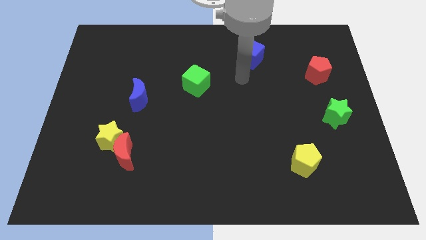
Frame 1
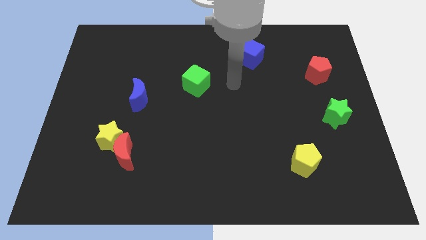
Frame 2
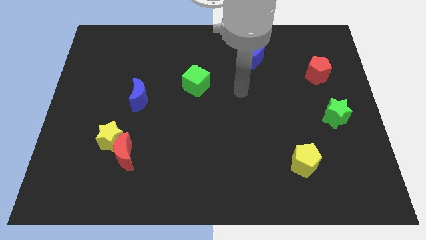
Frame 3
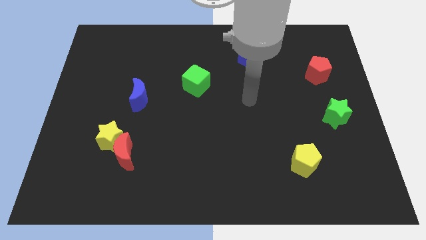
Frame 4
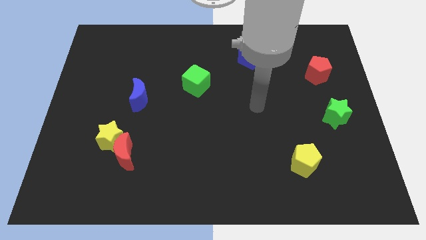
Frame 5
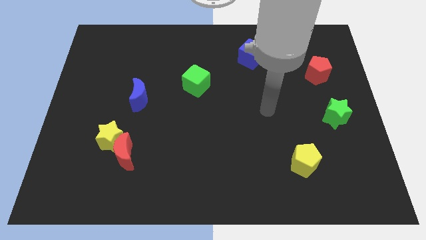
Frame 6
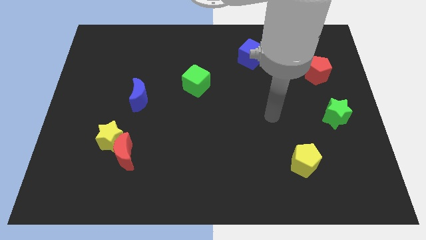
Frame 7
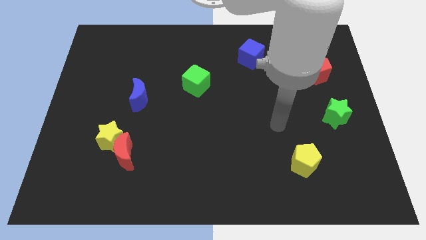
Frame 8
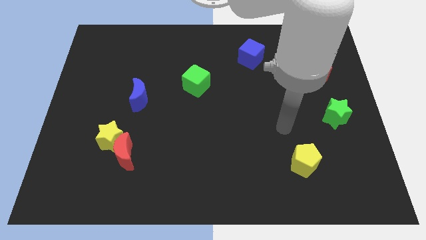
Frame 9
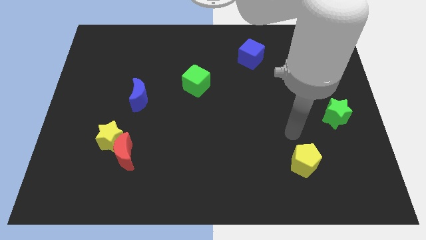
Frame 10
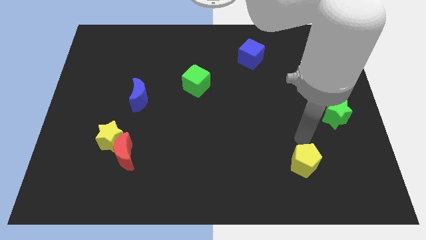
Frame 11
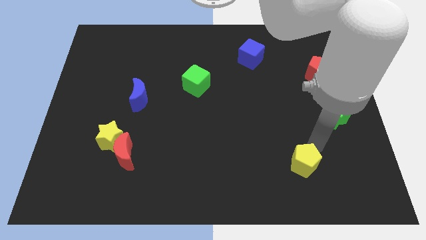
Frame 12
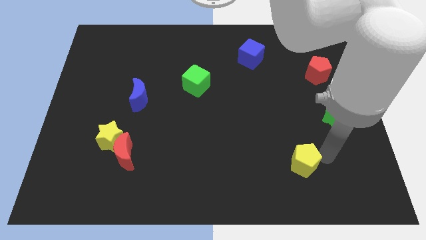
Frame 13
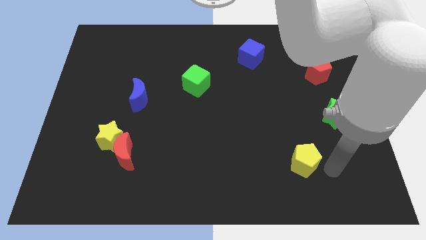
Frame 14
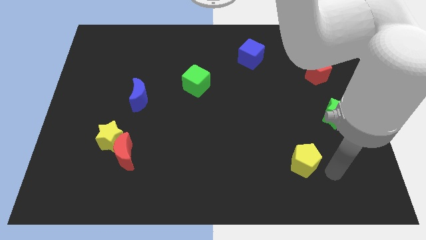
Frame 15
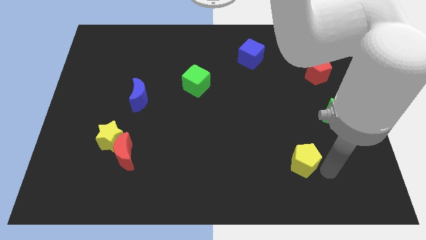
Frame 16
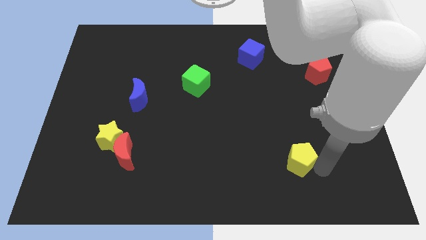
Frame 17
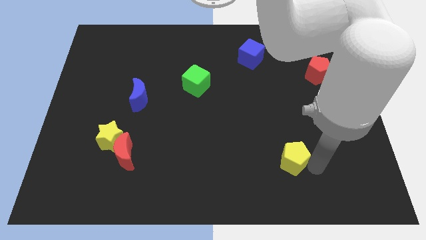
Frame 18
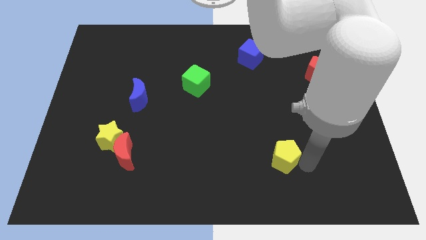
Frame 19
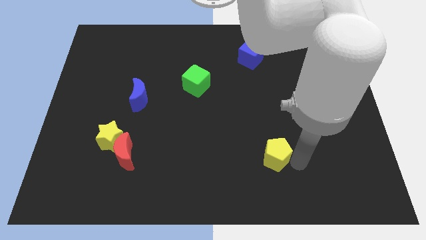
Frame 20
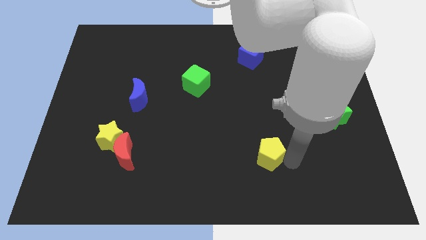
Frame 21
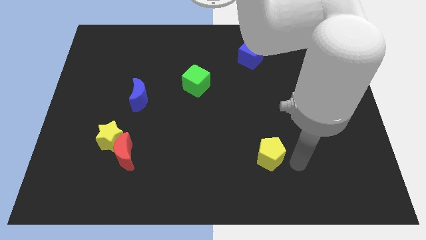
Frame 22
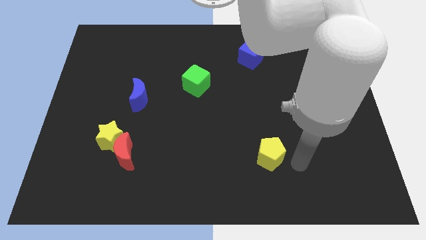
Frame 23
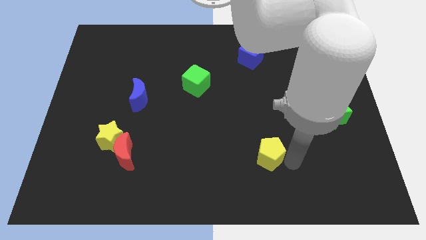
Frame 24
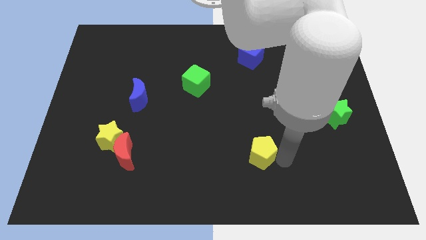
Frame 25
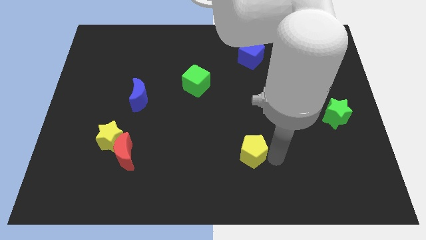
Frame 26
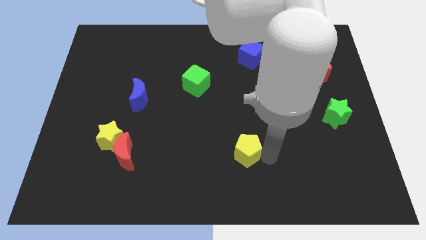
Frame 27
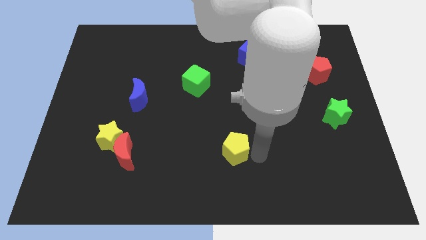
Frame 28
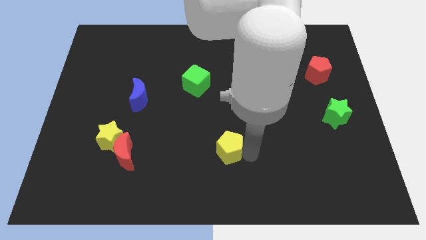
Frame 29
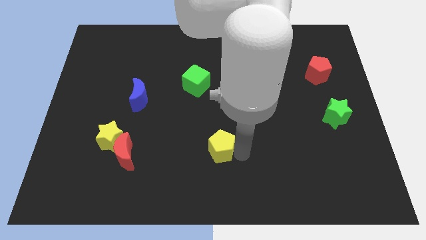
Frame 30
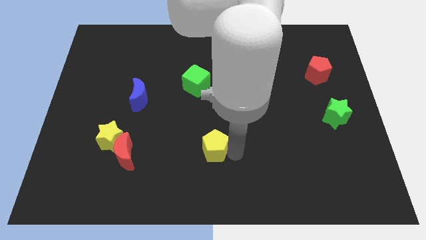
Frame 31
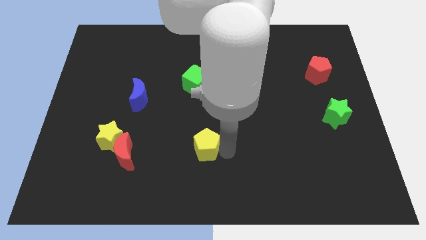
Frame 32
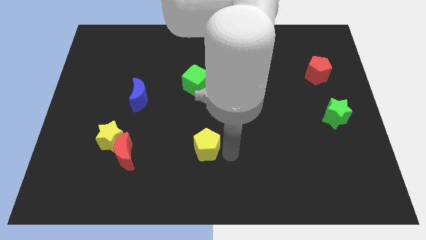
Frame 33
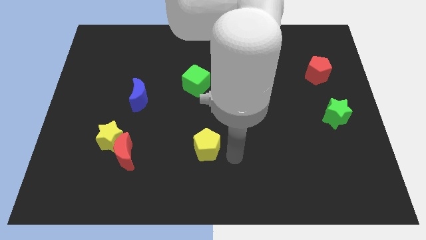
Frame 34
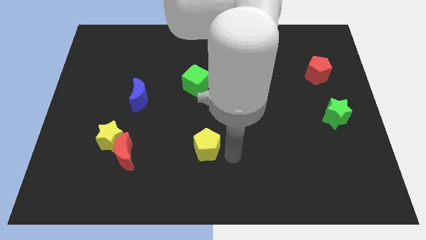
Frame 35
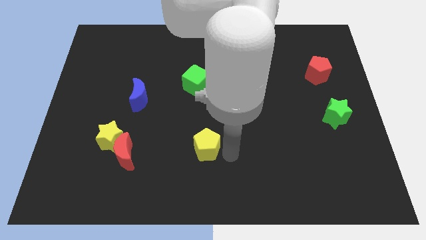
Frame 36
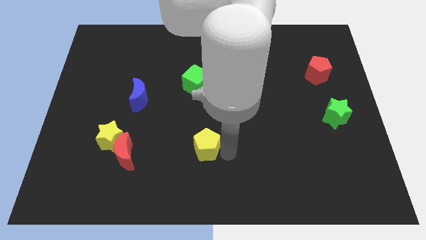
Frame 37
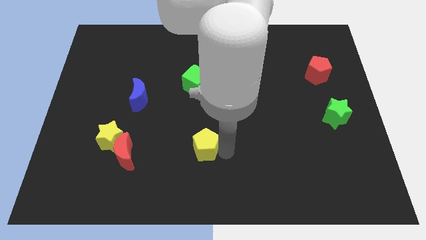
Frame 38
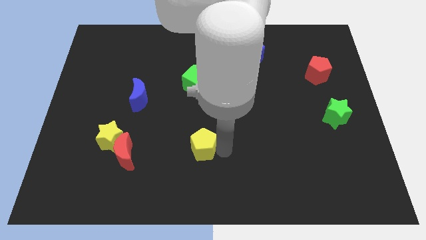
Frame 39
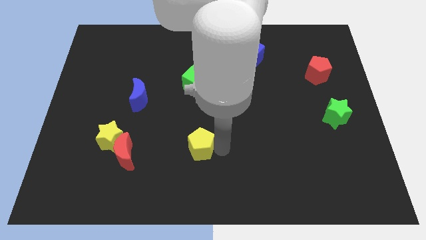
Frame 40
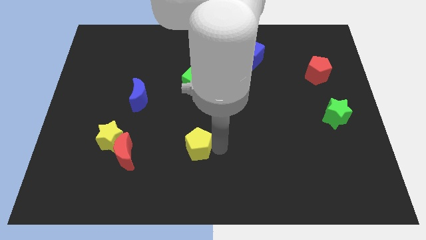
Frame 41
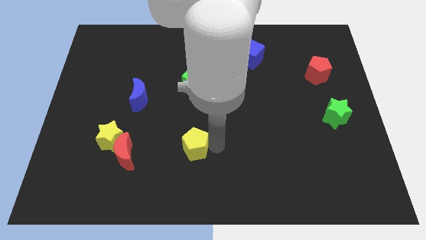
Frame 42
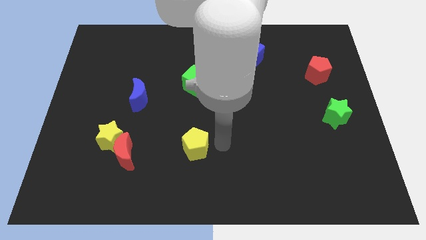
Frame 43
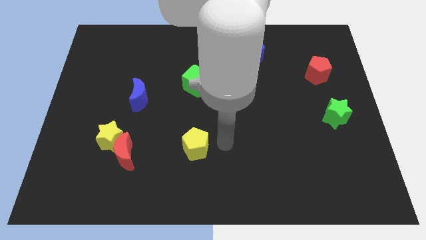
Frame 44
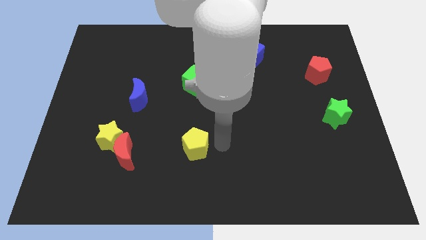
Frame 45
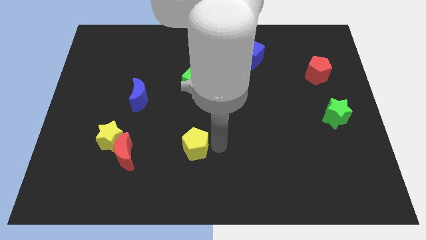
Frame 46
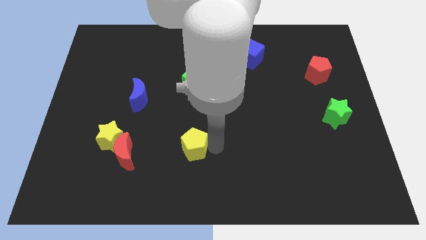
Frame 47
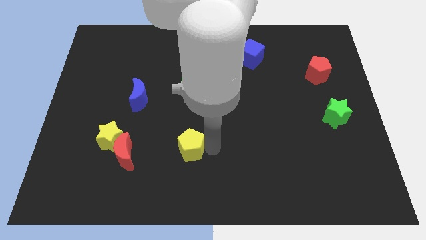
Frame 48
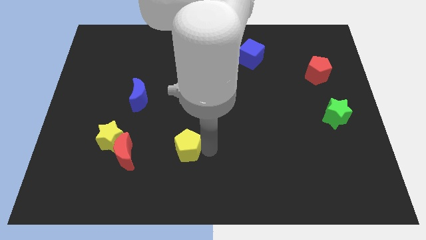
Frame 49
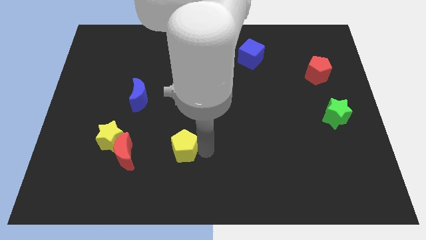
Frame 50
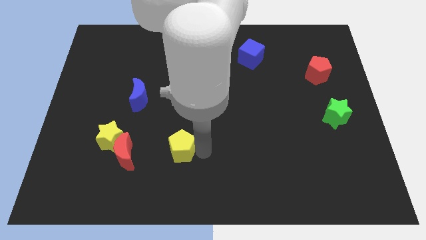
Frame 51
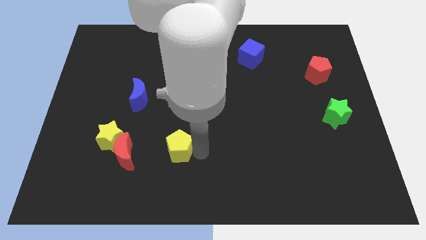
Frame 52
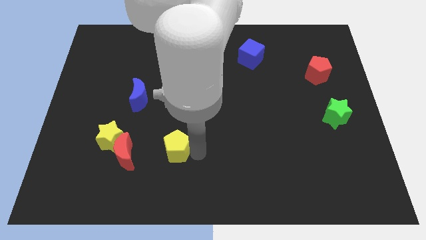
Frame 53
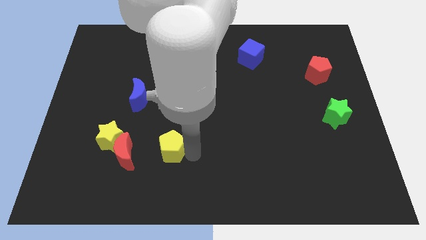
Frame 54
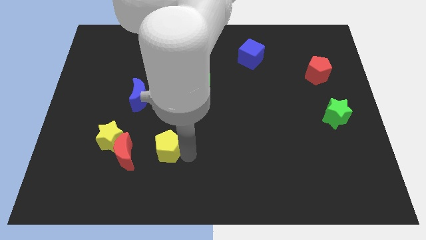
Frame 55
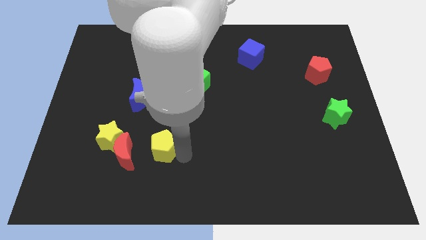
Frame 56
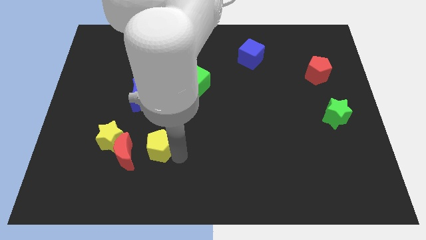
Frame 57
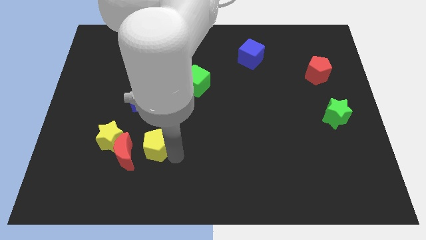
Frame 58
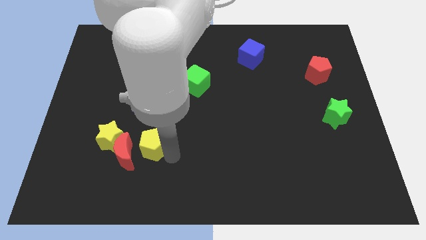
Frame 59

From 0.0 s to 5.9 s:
slide the yellow pentagon close to the red moon

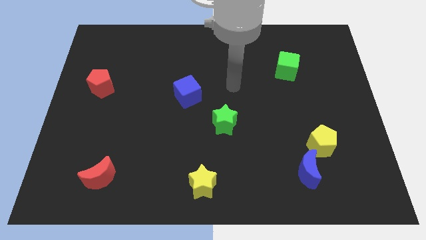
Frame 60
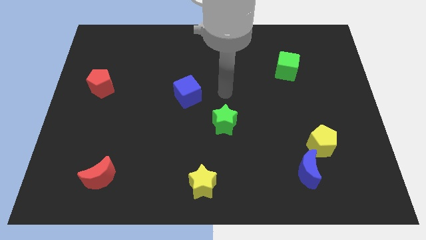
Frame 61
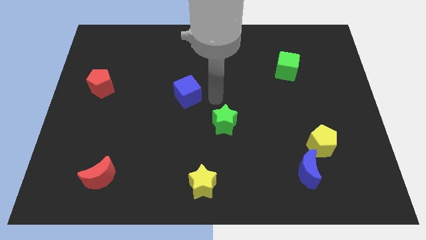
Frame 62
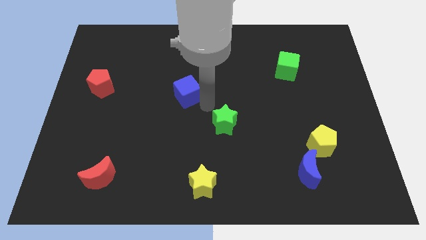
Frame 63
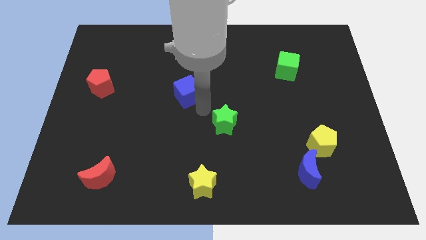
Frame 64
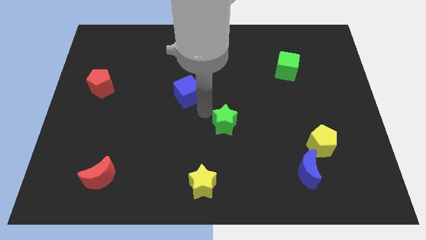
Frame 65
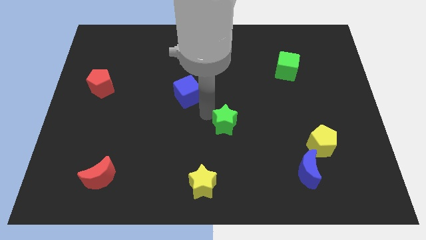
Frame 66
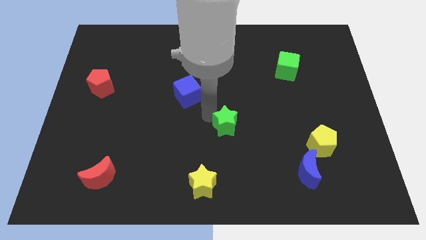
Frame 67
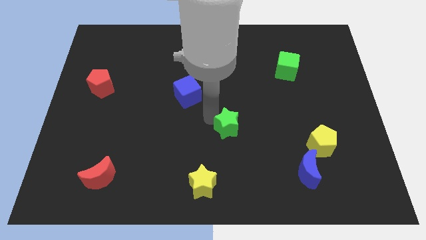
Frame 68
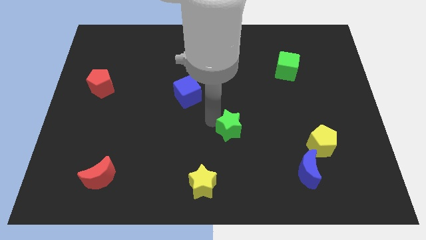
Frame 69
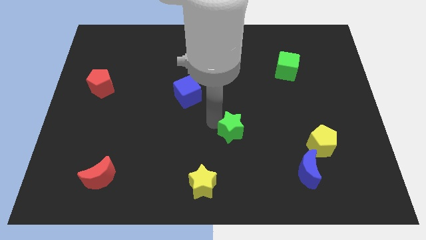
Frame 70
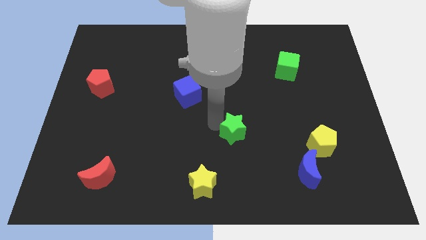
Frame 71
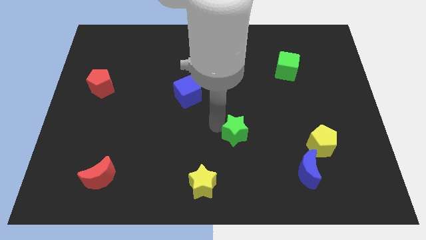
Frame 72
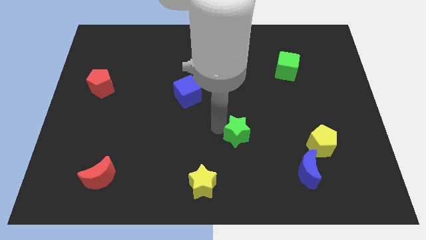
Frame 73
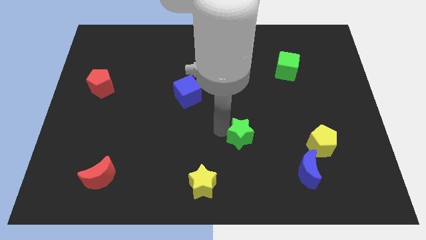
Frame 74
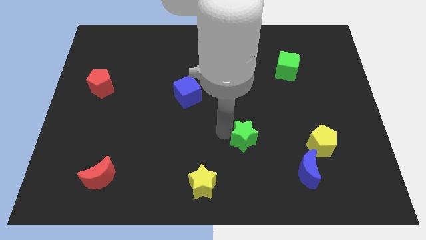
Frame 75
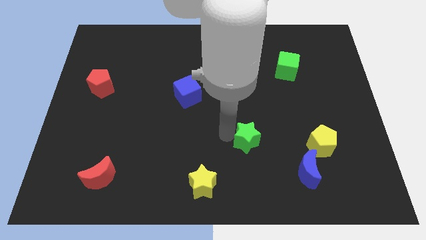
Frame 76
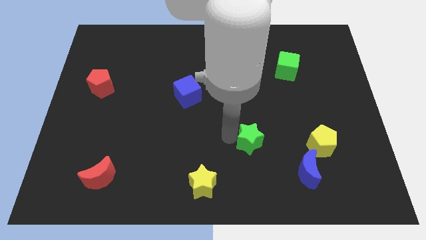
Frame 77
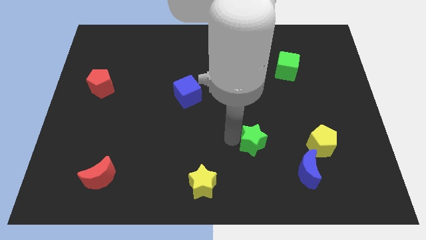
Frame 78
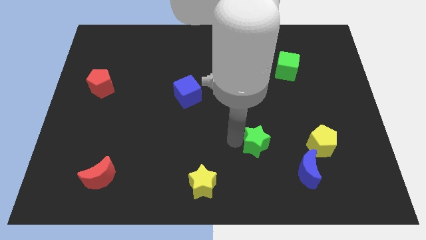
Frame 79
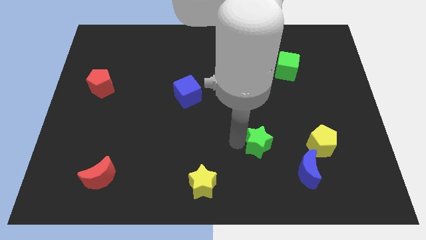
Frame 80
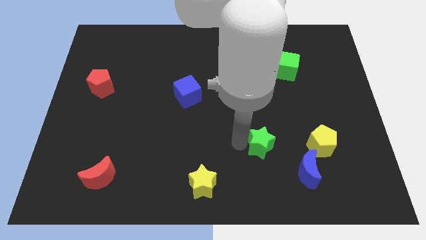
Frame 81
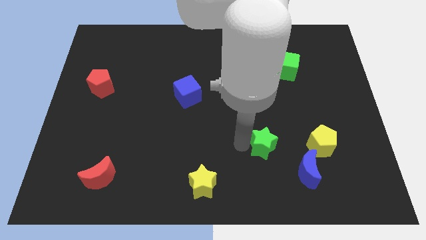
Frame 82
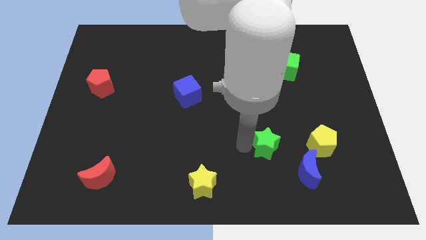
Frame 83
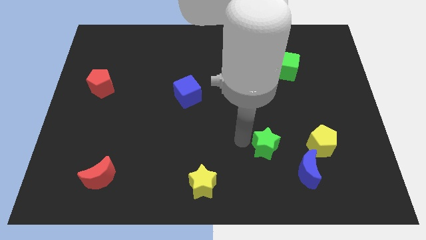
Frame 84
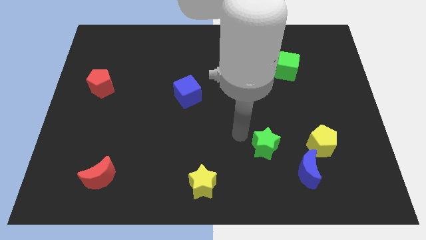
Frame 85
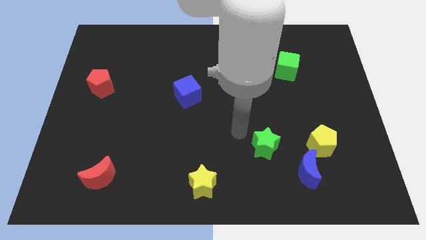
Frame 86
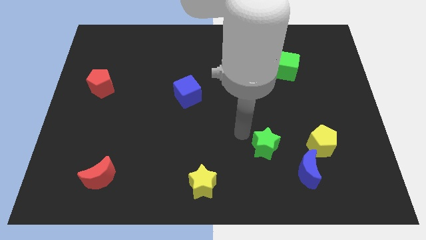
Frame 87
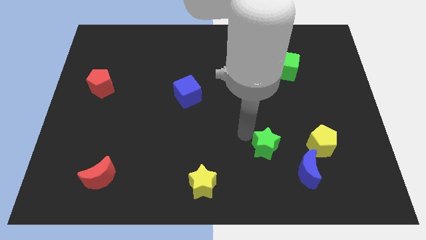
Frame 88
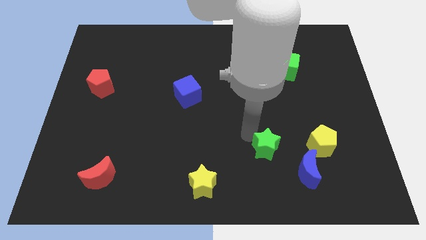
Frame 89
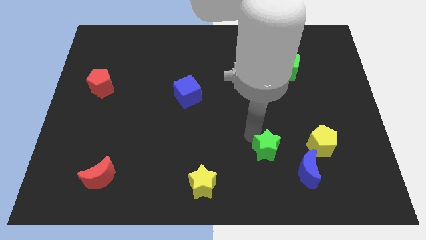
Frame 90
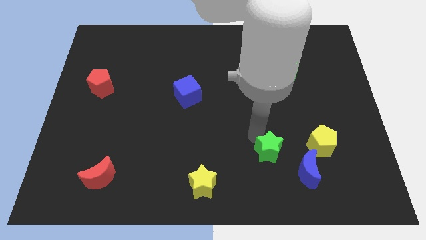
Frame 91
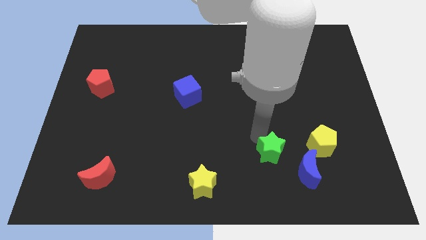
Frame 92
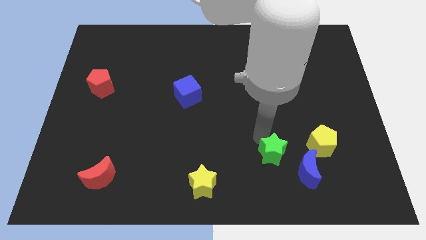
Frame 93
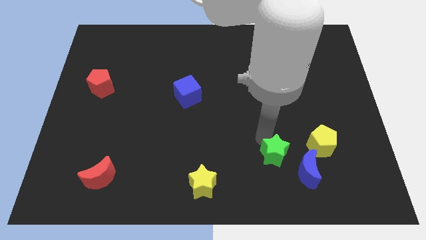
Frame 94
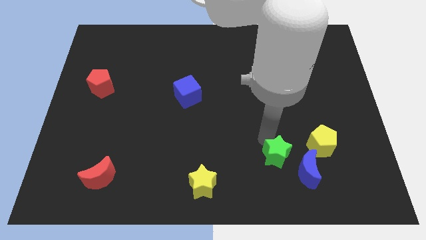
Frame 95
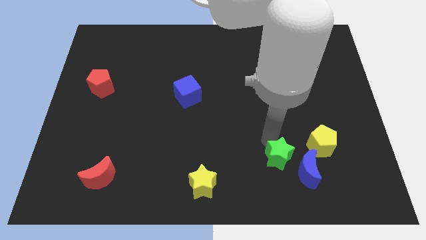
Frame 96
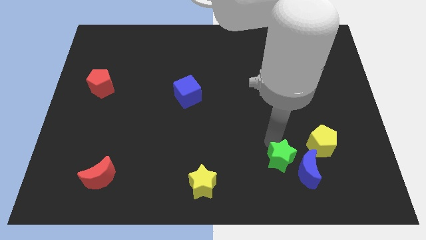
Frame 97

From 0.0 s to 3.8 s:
move the green star close to the blue moon
